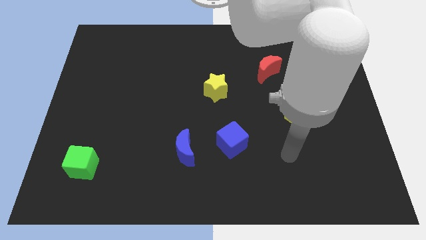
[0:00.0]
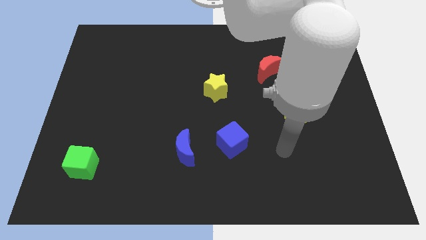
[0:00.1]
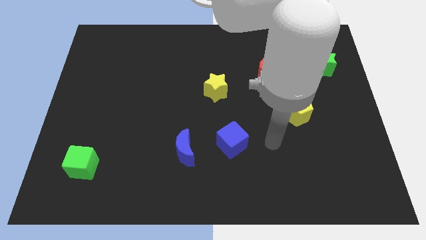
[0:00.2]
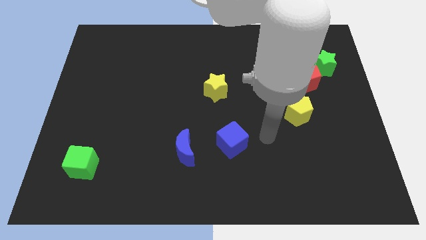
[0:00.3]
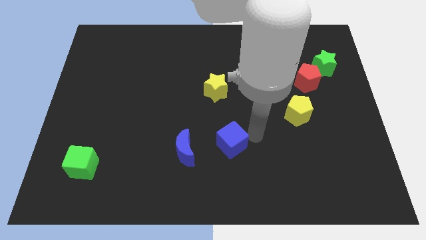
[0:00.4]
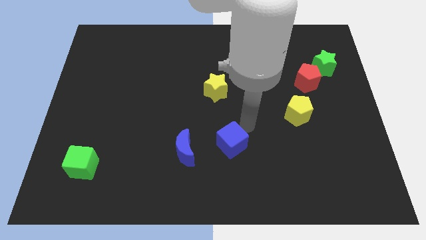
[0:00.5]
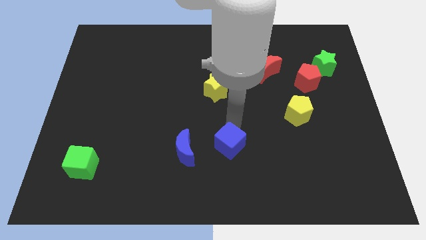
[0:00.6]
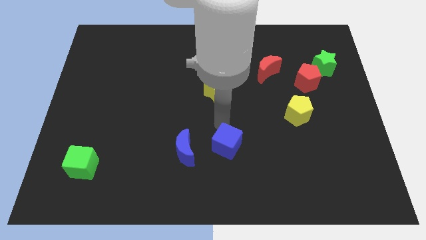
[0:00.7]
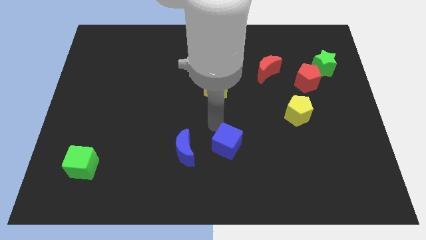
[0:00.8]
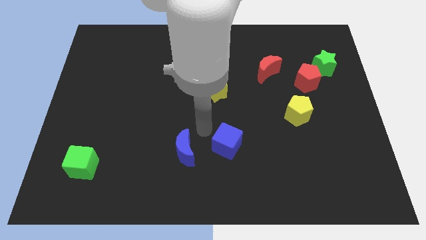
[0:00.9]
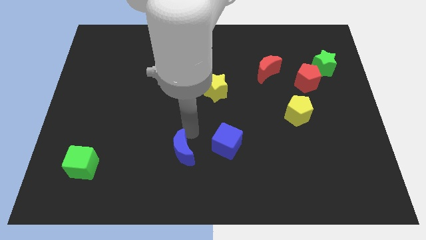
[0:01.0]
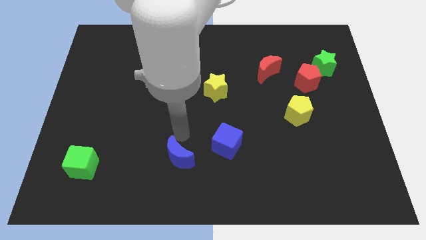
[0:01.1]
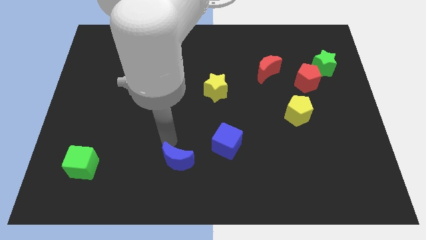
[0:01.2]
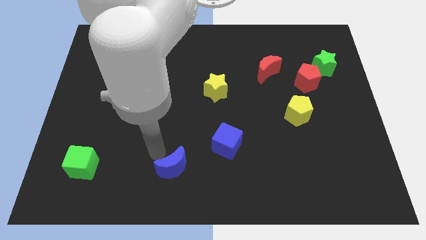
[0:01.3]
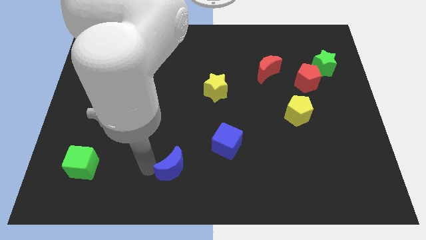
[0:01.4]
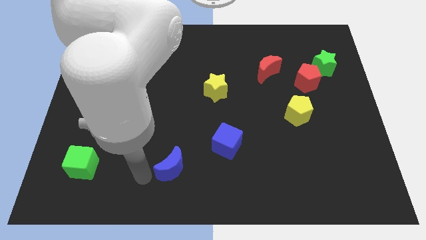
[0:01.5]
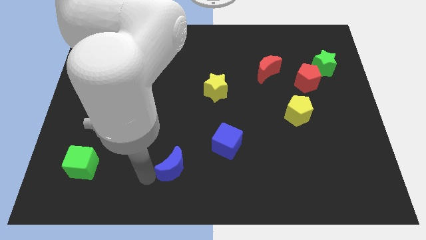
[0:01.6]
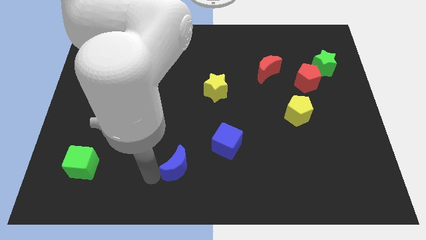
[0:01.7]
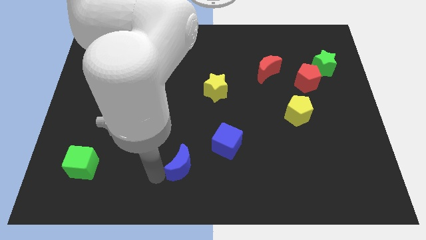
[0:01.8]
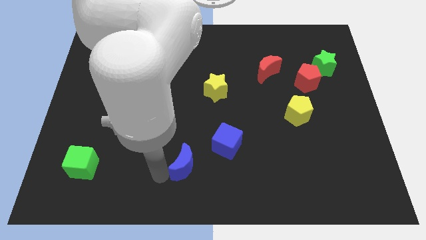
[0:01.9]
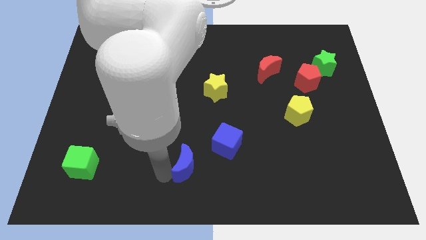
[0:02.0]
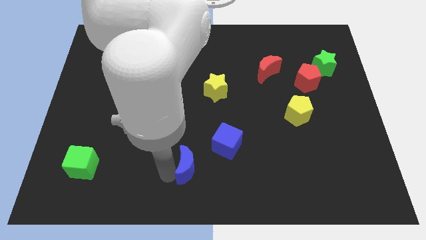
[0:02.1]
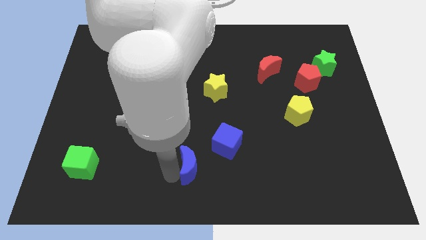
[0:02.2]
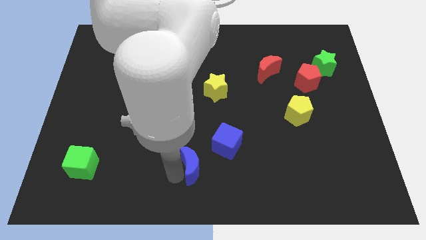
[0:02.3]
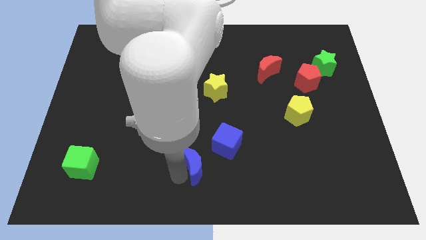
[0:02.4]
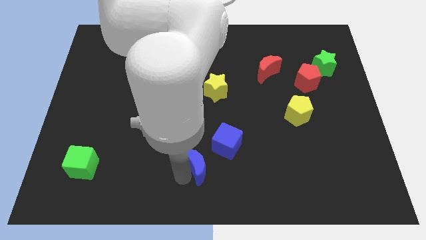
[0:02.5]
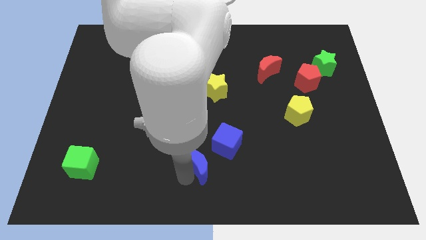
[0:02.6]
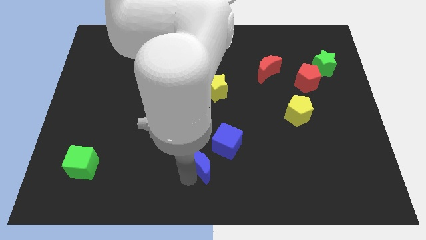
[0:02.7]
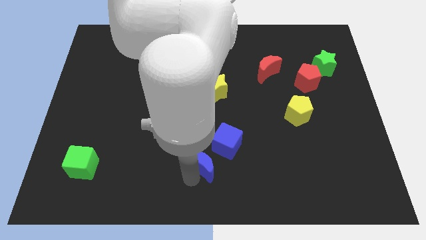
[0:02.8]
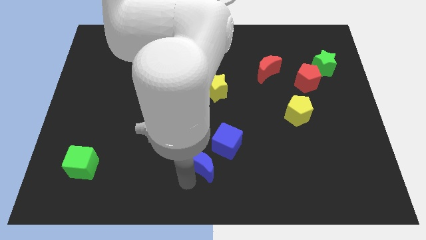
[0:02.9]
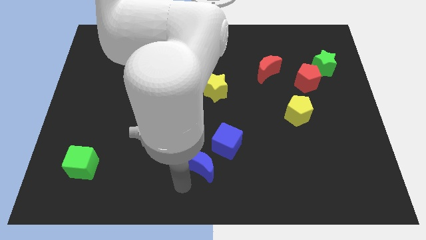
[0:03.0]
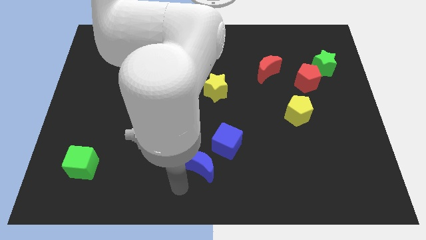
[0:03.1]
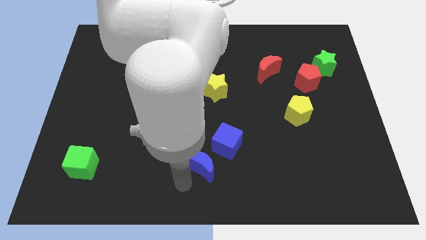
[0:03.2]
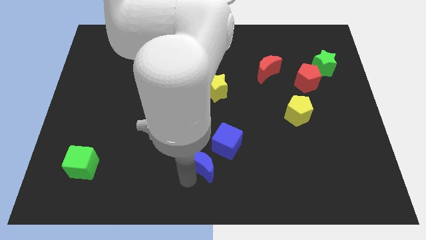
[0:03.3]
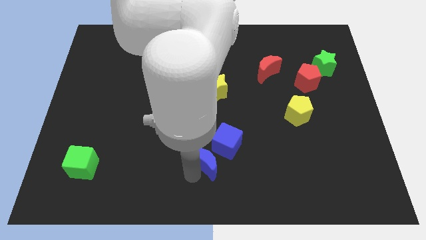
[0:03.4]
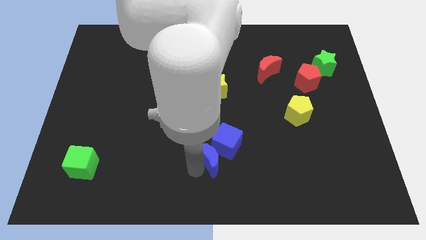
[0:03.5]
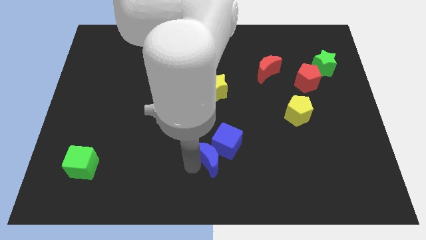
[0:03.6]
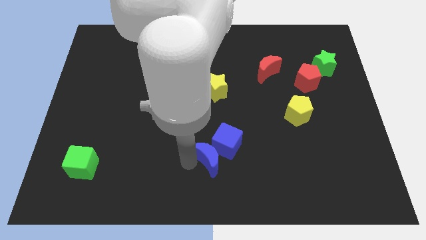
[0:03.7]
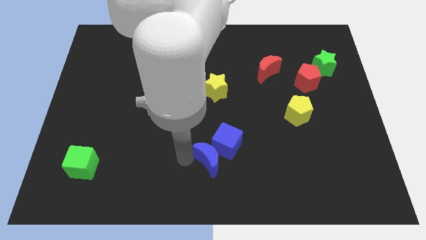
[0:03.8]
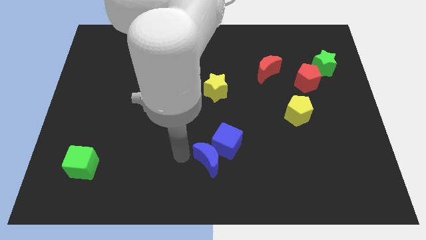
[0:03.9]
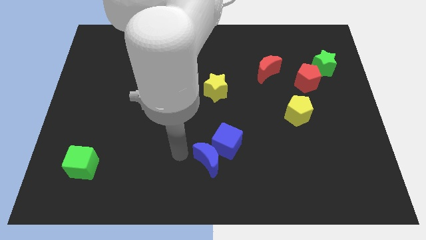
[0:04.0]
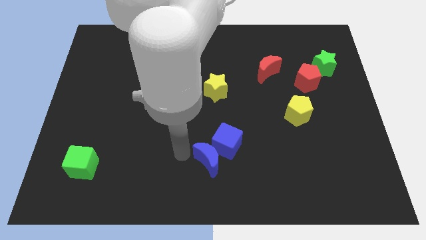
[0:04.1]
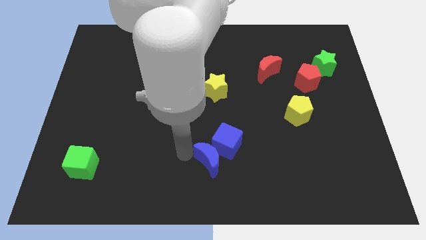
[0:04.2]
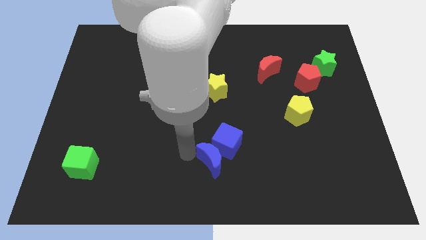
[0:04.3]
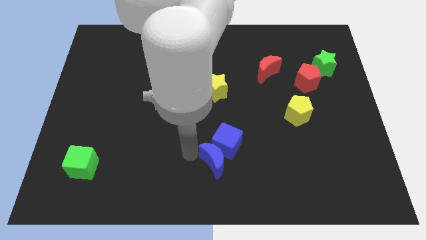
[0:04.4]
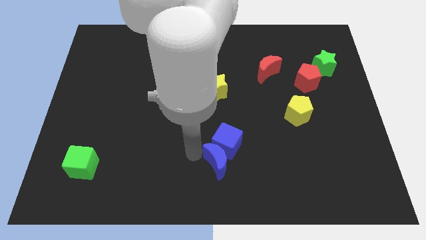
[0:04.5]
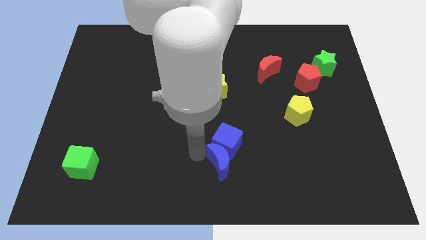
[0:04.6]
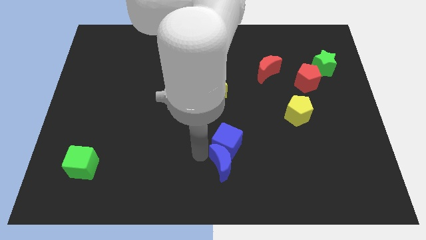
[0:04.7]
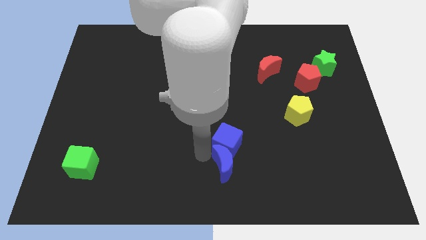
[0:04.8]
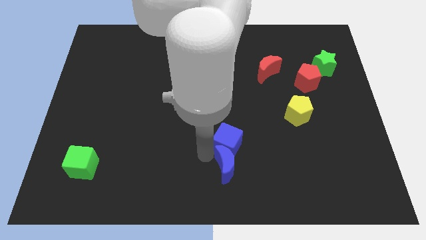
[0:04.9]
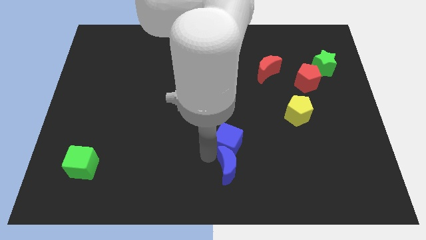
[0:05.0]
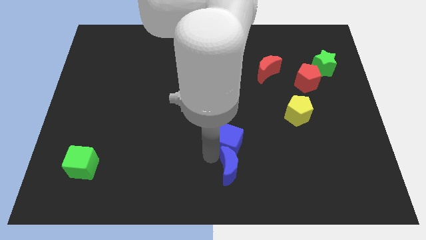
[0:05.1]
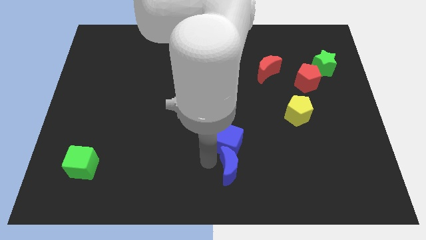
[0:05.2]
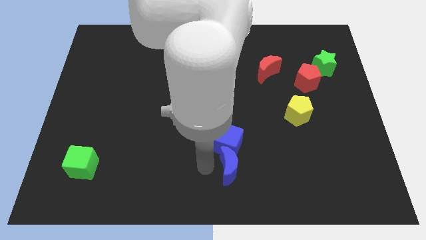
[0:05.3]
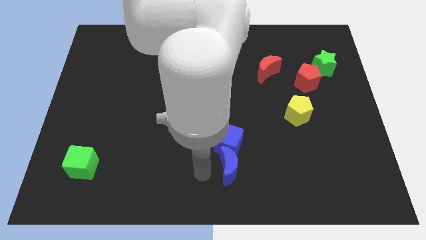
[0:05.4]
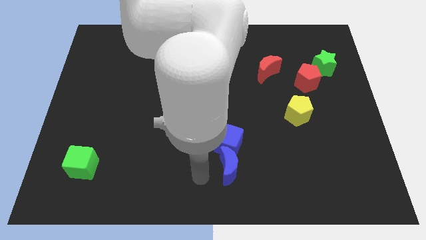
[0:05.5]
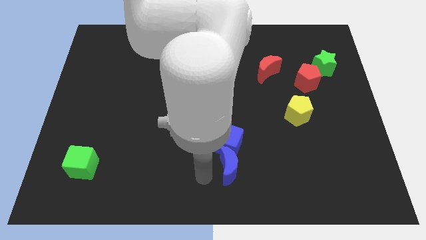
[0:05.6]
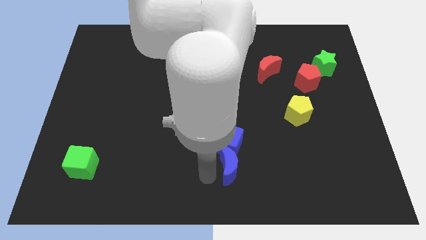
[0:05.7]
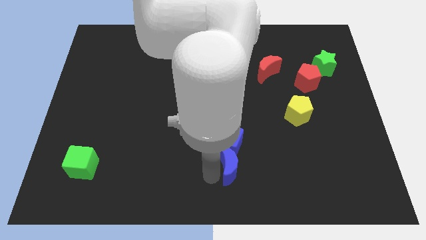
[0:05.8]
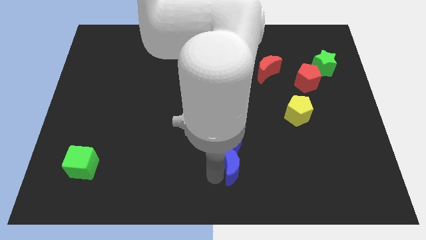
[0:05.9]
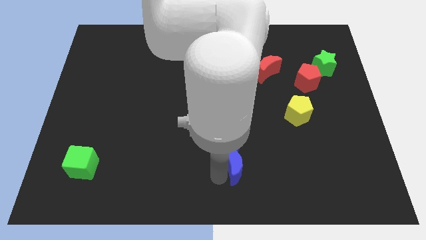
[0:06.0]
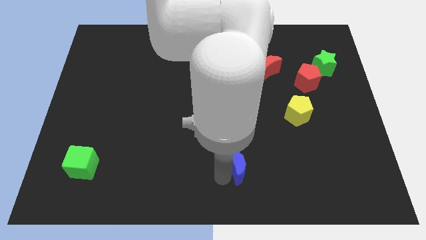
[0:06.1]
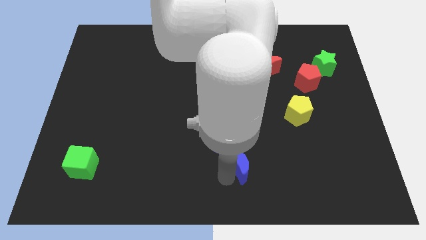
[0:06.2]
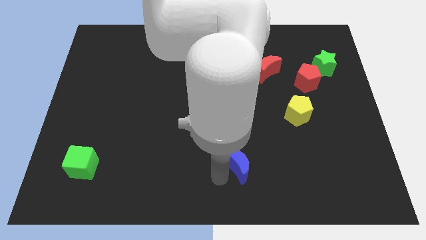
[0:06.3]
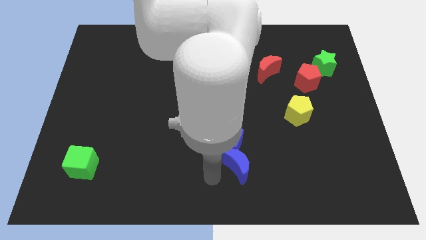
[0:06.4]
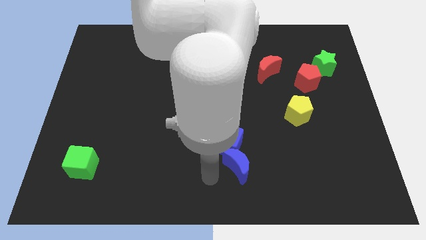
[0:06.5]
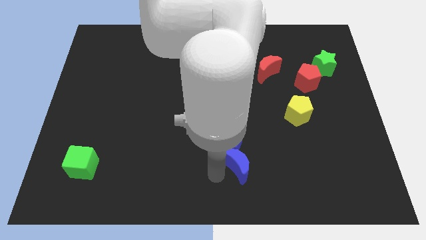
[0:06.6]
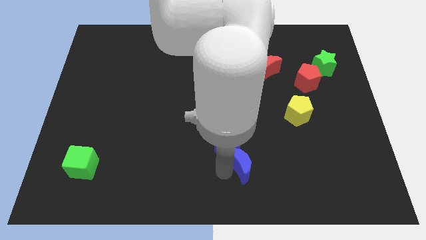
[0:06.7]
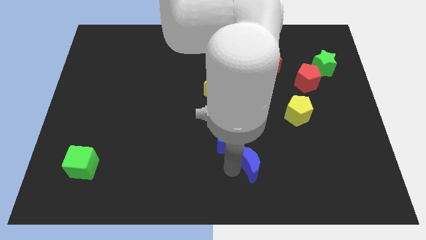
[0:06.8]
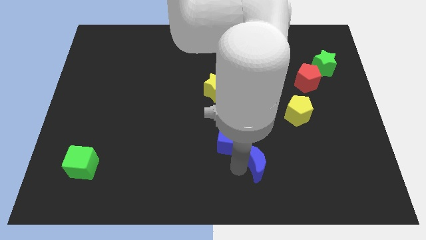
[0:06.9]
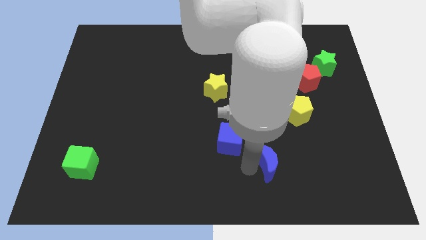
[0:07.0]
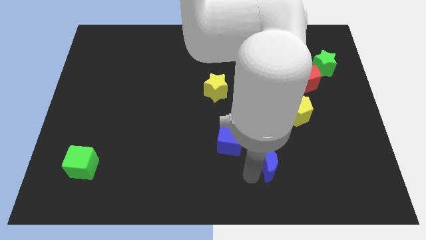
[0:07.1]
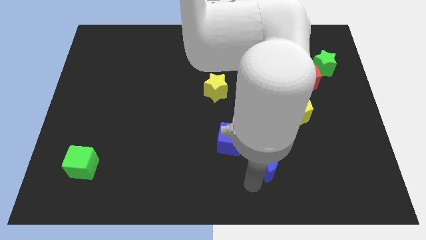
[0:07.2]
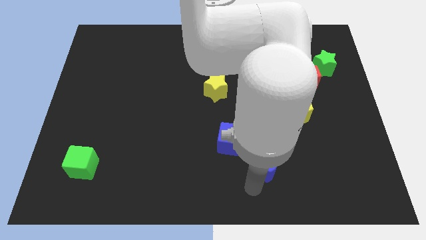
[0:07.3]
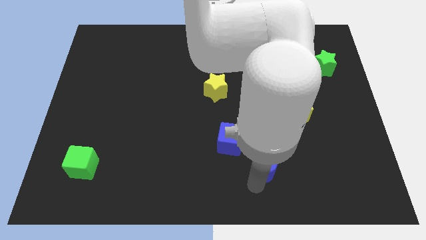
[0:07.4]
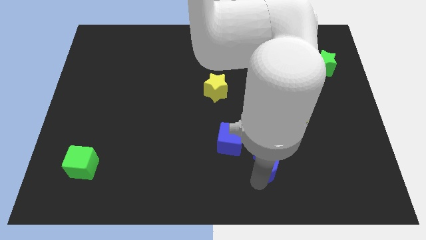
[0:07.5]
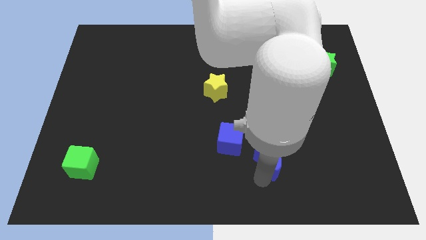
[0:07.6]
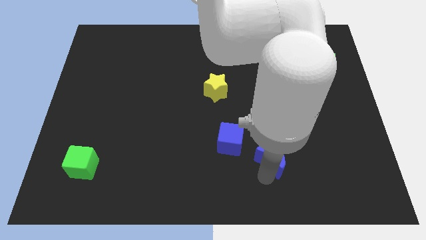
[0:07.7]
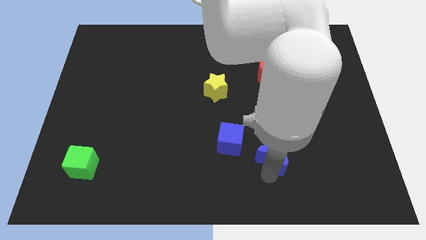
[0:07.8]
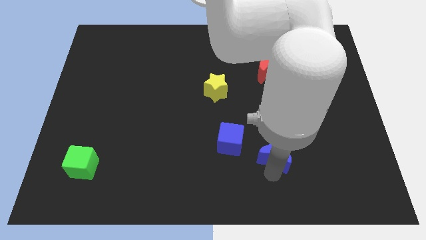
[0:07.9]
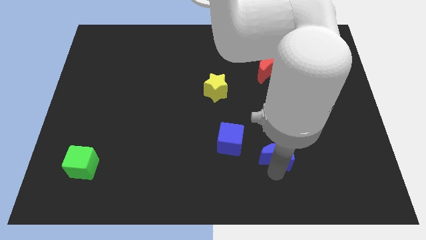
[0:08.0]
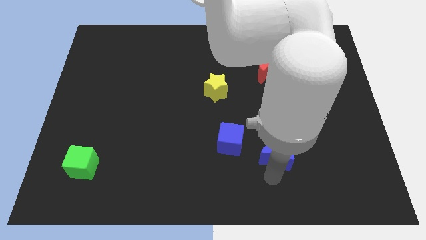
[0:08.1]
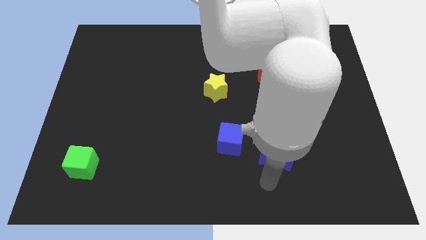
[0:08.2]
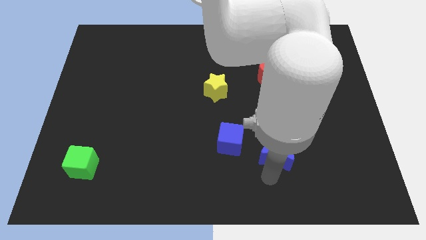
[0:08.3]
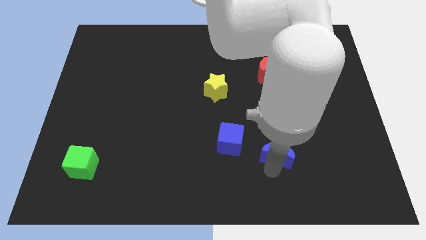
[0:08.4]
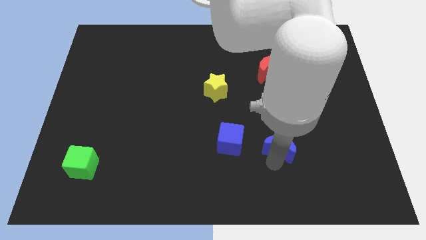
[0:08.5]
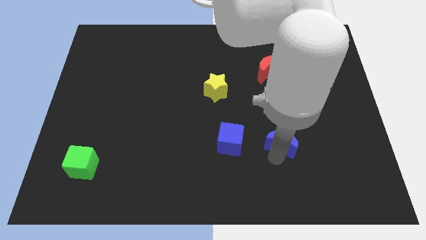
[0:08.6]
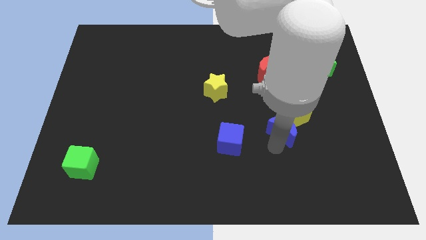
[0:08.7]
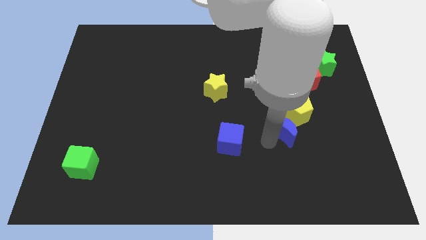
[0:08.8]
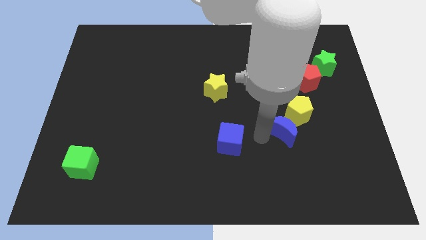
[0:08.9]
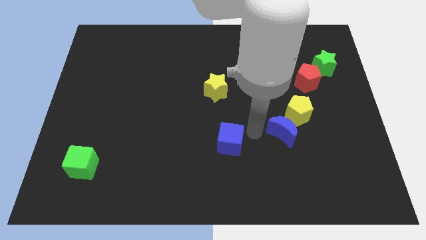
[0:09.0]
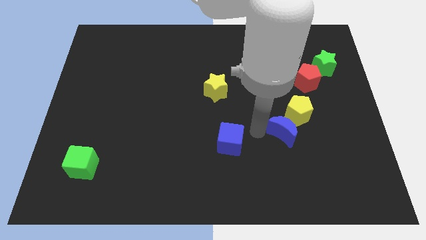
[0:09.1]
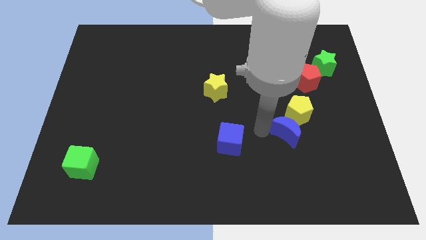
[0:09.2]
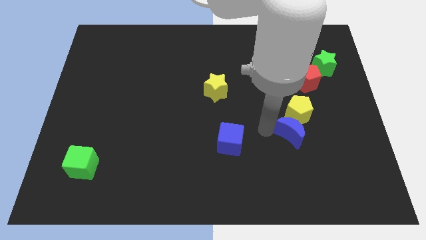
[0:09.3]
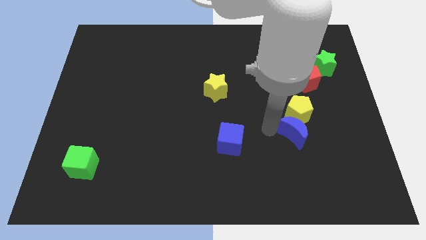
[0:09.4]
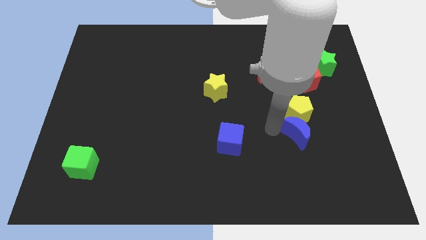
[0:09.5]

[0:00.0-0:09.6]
move the blue moon to the bottom right of the yellow pentagon
